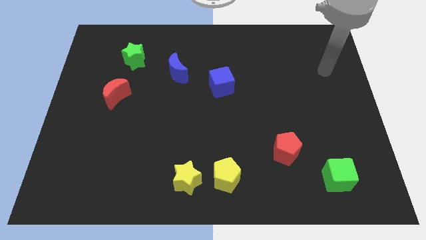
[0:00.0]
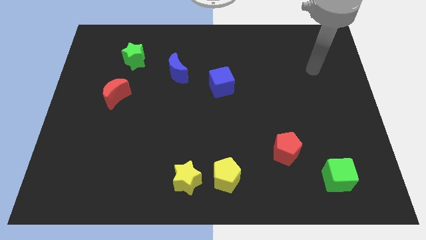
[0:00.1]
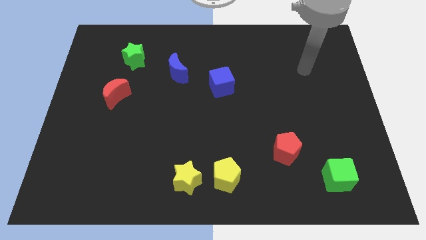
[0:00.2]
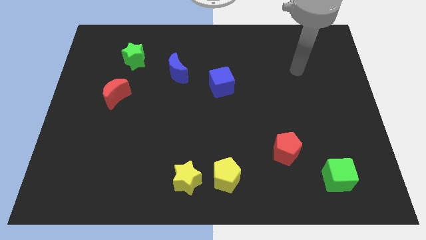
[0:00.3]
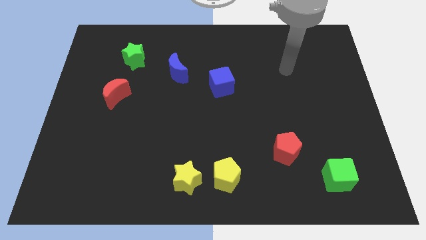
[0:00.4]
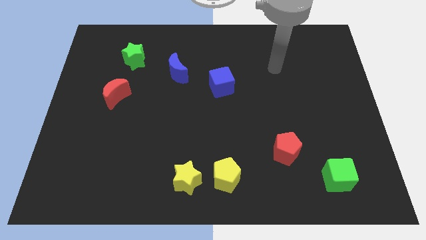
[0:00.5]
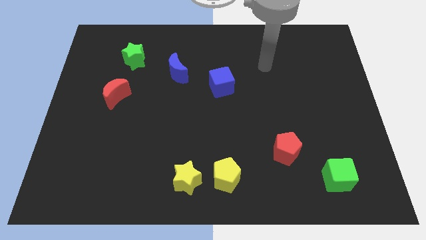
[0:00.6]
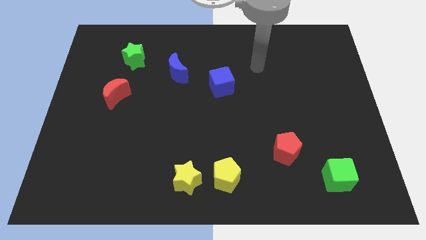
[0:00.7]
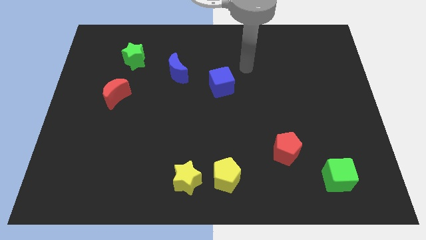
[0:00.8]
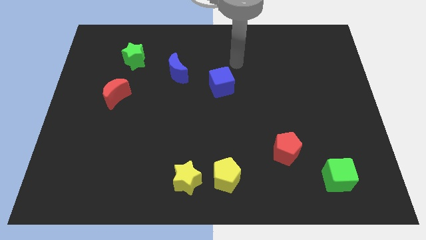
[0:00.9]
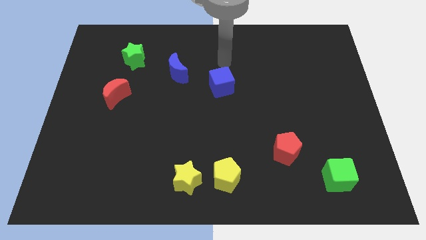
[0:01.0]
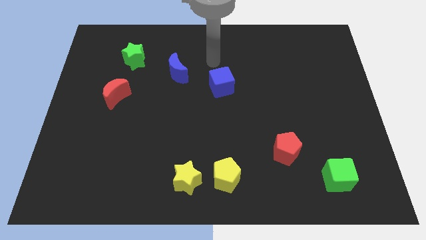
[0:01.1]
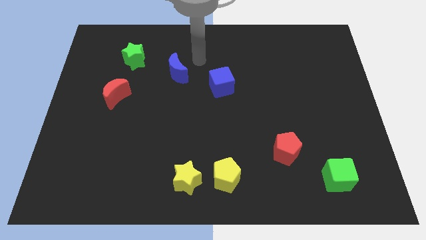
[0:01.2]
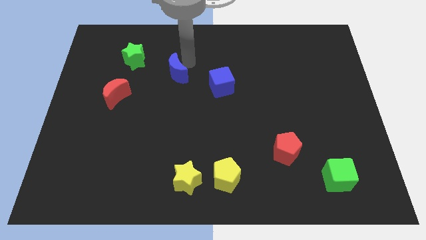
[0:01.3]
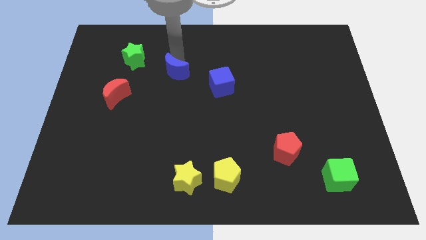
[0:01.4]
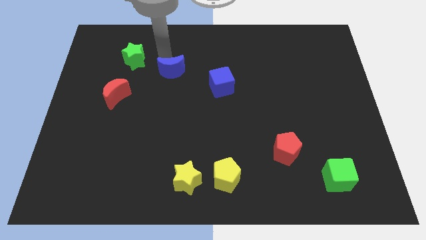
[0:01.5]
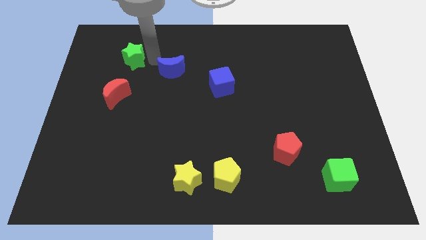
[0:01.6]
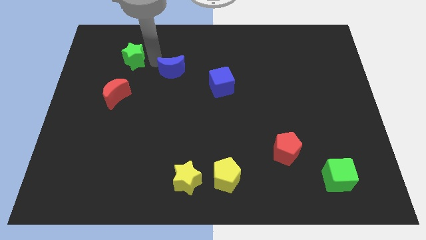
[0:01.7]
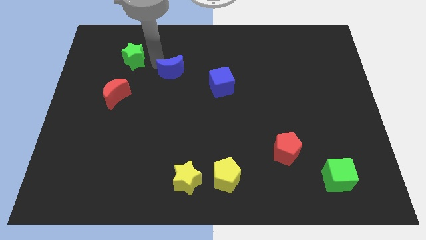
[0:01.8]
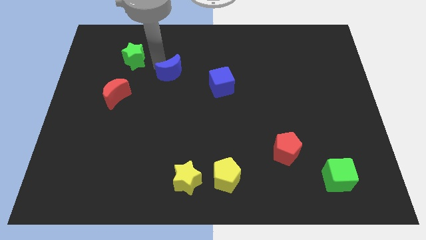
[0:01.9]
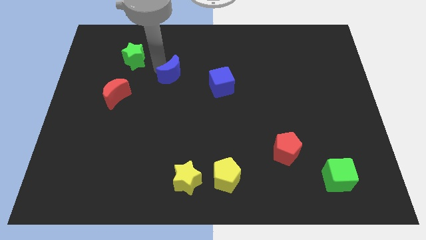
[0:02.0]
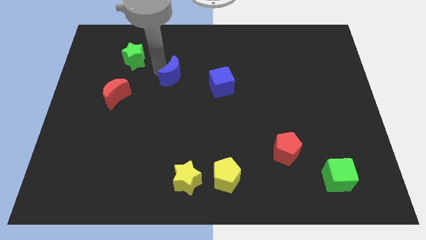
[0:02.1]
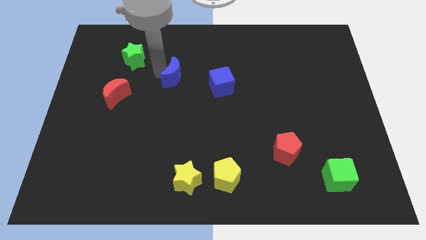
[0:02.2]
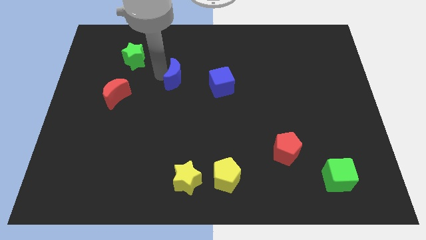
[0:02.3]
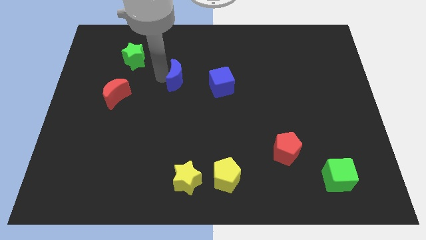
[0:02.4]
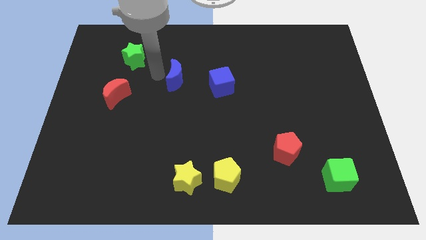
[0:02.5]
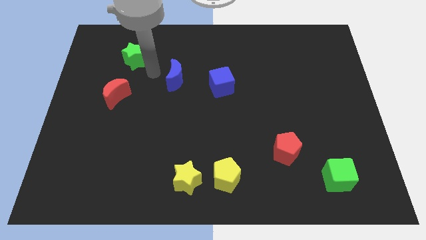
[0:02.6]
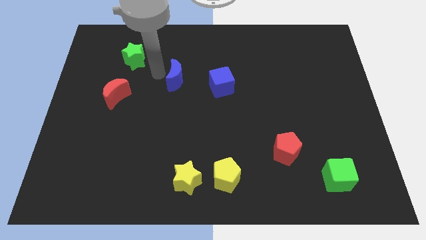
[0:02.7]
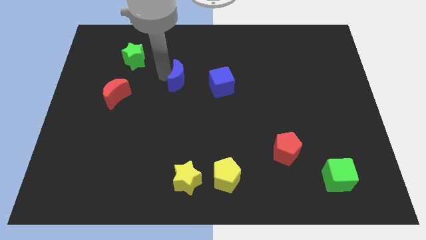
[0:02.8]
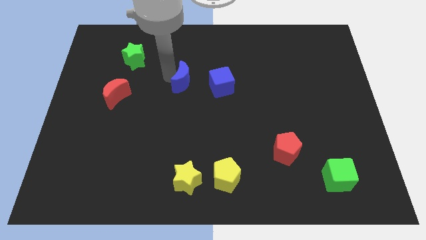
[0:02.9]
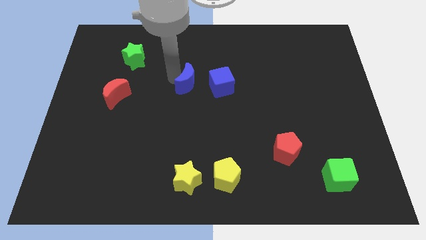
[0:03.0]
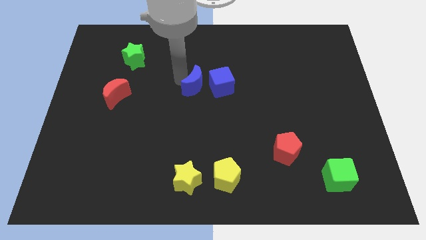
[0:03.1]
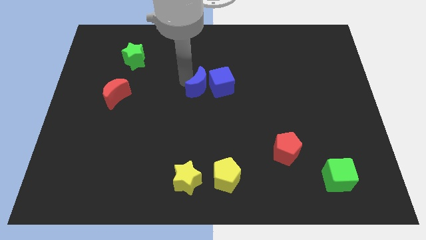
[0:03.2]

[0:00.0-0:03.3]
push the blue moon downwards and then right a little

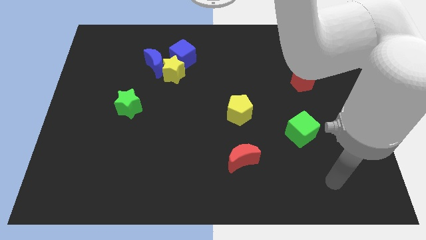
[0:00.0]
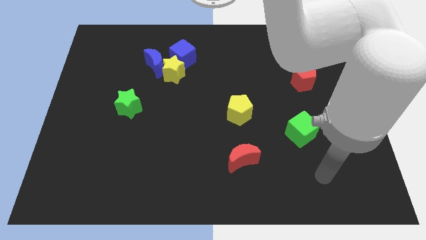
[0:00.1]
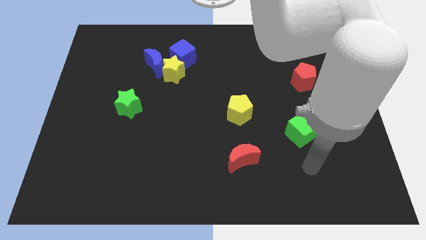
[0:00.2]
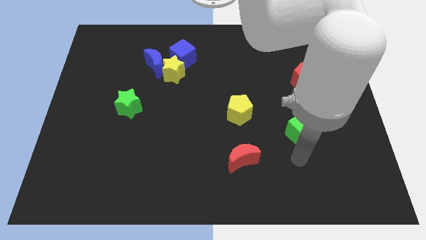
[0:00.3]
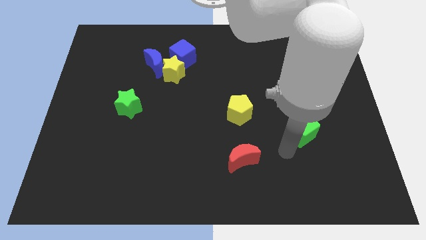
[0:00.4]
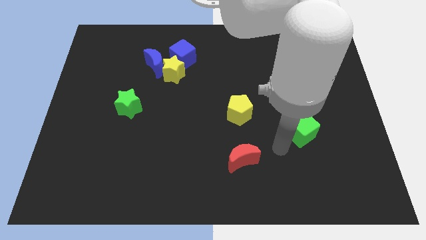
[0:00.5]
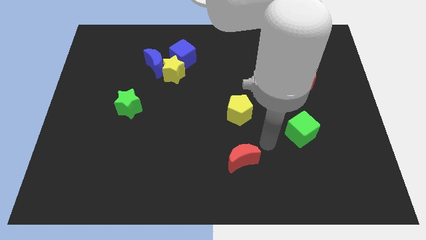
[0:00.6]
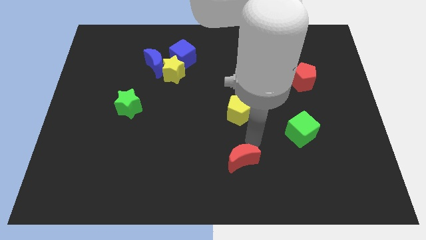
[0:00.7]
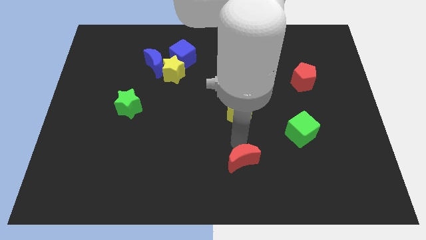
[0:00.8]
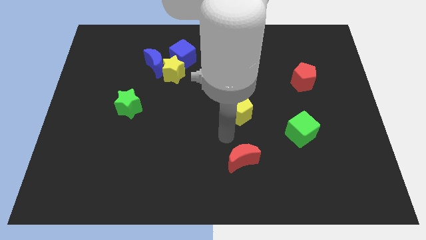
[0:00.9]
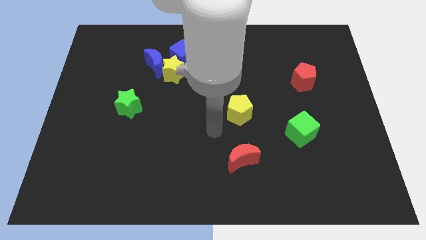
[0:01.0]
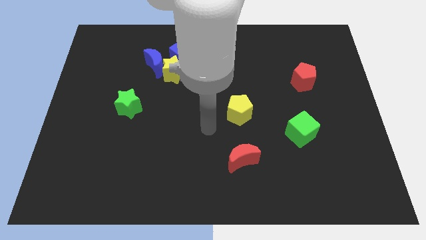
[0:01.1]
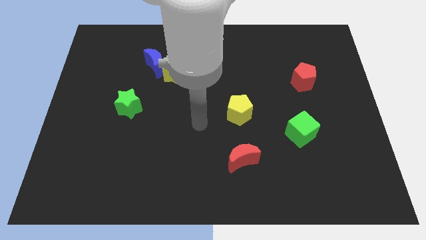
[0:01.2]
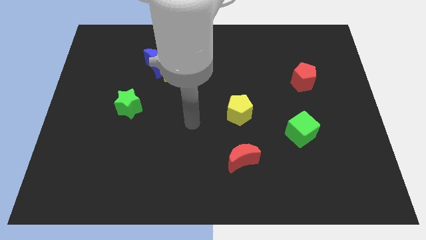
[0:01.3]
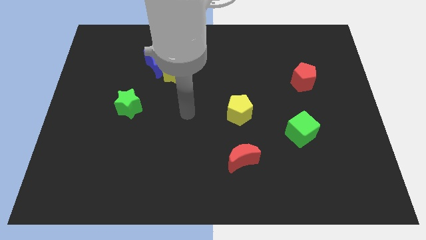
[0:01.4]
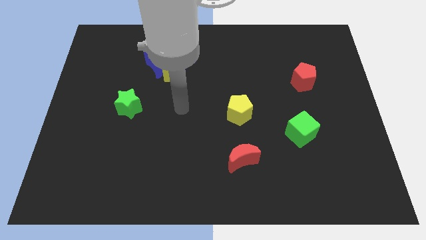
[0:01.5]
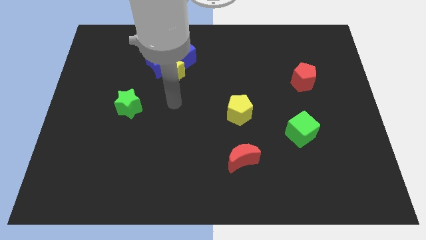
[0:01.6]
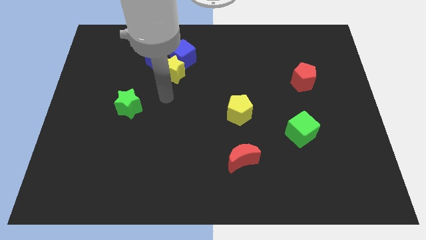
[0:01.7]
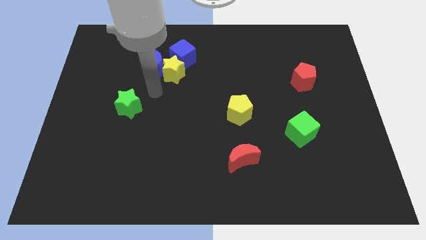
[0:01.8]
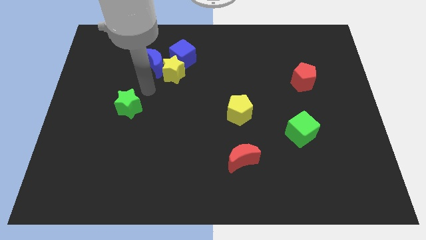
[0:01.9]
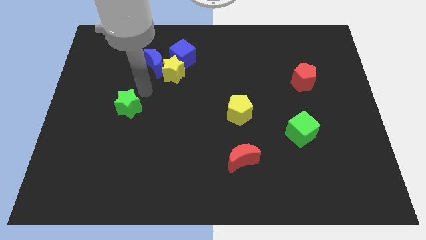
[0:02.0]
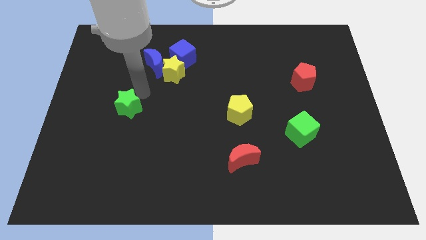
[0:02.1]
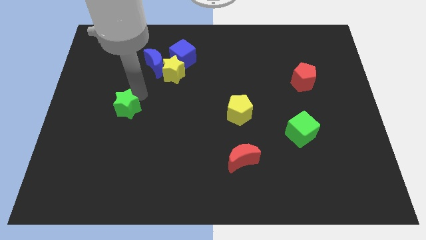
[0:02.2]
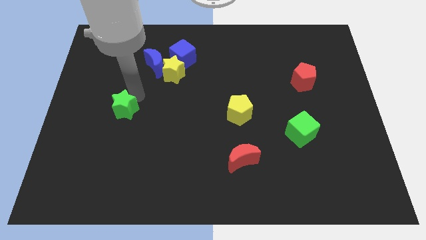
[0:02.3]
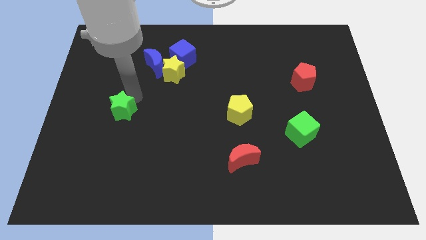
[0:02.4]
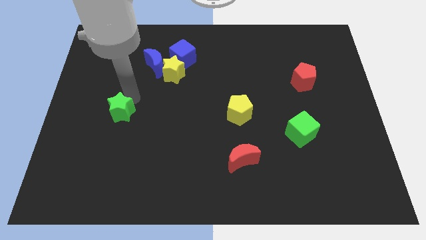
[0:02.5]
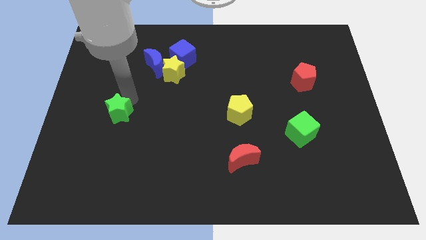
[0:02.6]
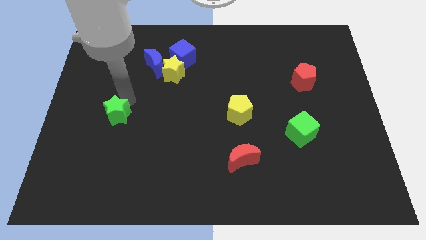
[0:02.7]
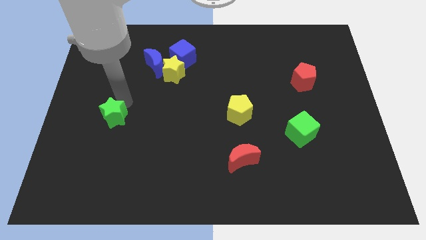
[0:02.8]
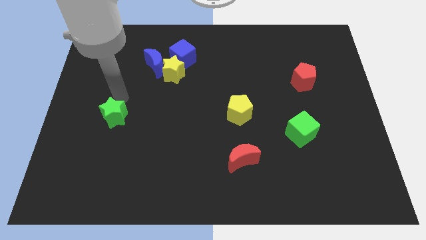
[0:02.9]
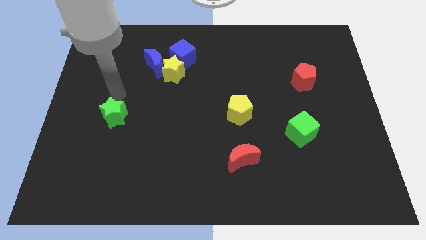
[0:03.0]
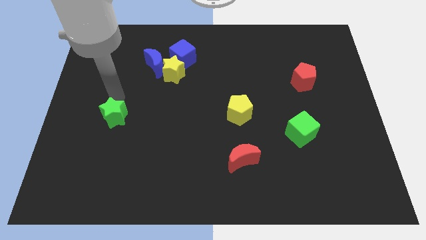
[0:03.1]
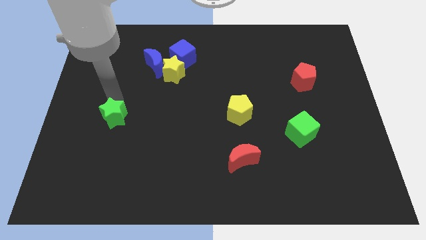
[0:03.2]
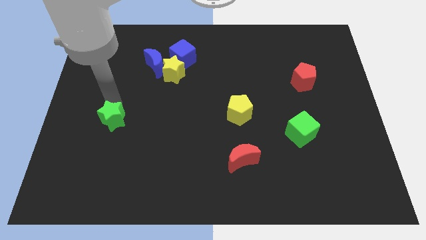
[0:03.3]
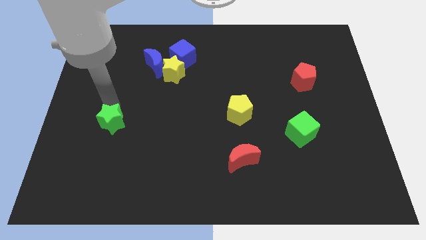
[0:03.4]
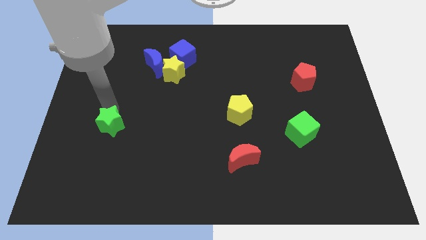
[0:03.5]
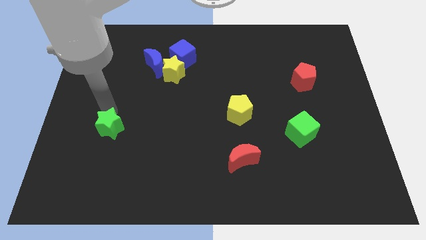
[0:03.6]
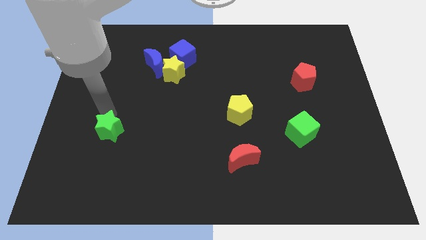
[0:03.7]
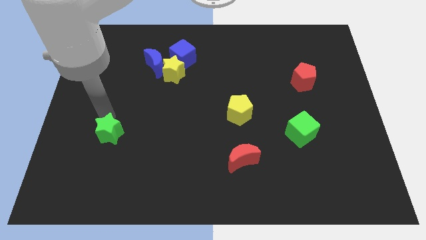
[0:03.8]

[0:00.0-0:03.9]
move the green star a little bit downwards

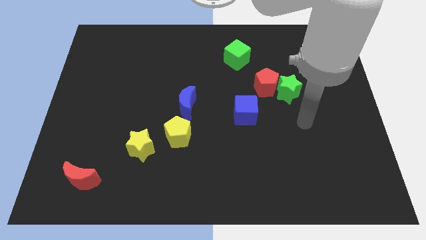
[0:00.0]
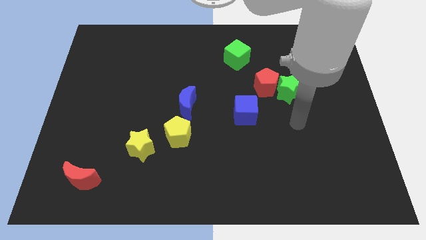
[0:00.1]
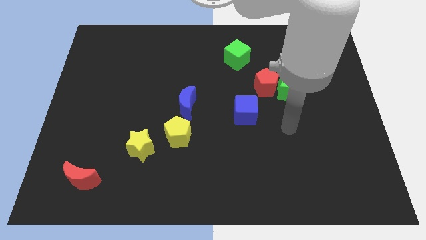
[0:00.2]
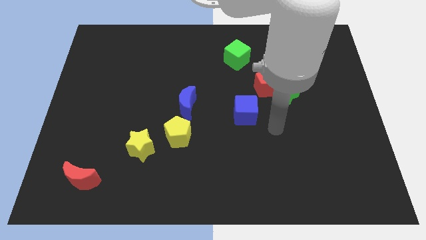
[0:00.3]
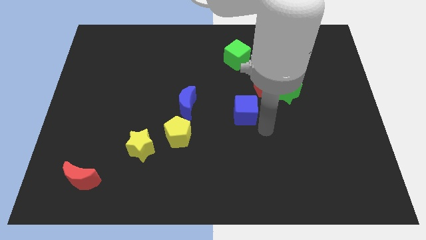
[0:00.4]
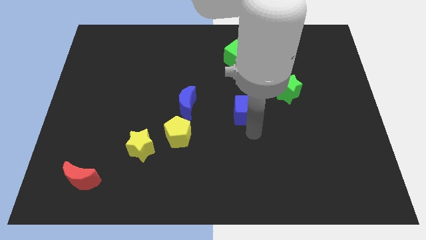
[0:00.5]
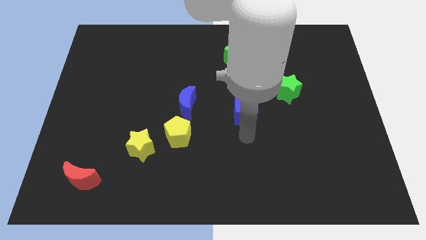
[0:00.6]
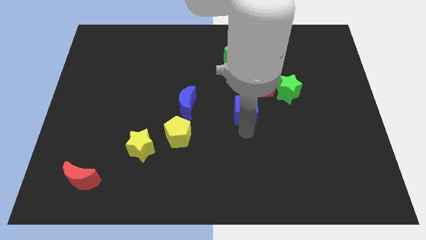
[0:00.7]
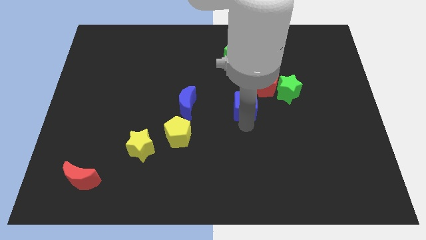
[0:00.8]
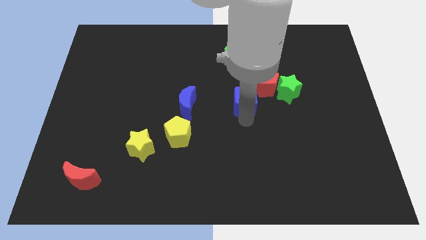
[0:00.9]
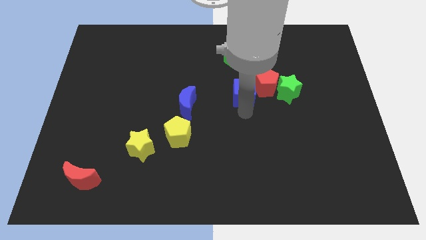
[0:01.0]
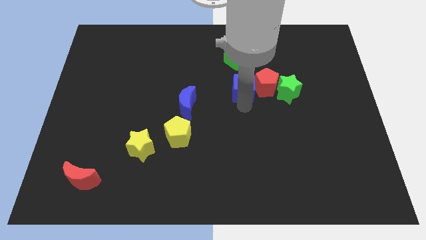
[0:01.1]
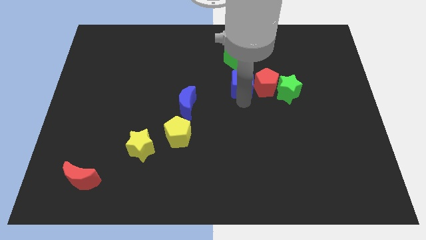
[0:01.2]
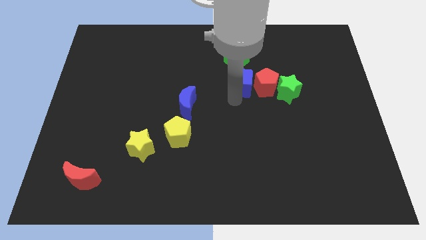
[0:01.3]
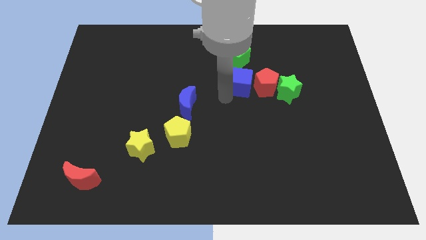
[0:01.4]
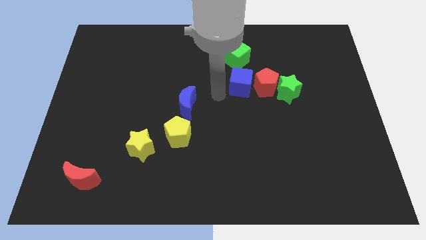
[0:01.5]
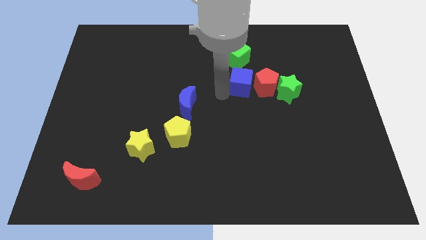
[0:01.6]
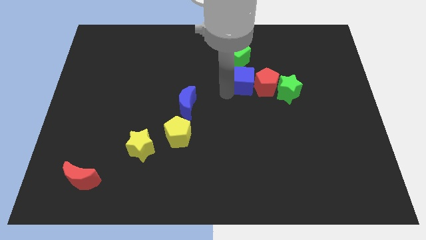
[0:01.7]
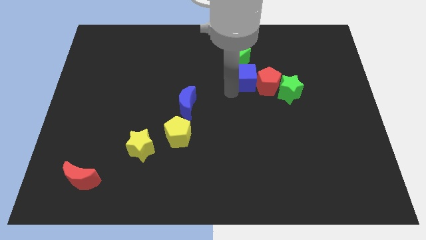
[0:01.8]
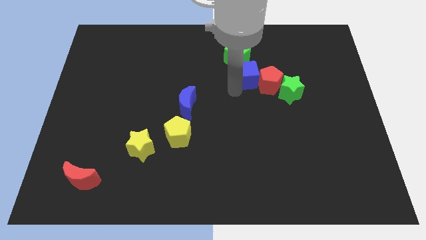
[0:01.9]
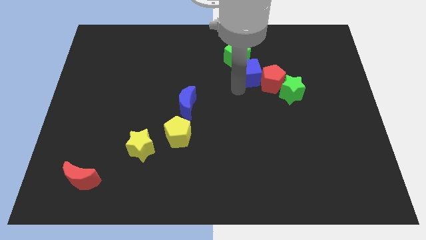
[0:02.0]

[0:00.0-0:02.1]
slightly slide the blue cube diagonally up and right
